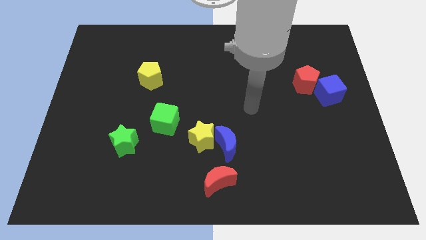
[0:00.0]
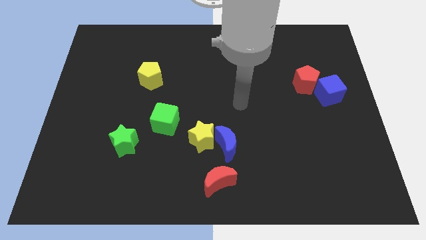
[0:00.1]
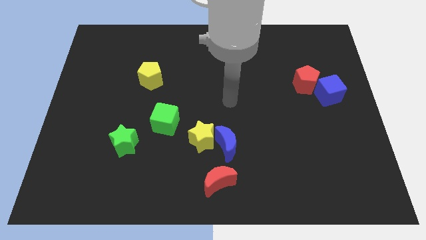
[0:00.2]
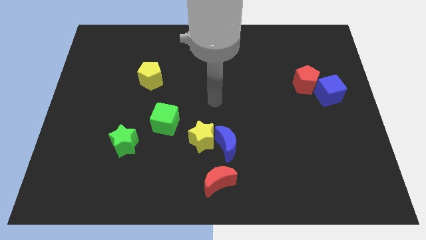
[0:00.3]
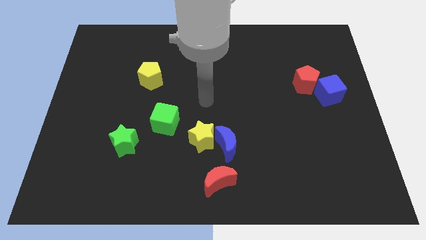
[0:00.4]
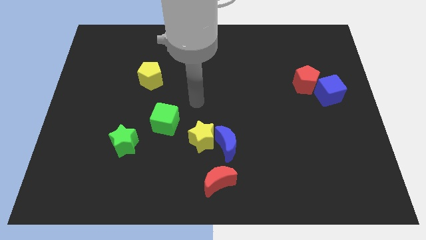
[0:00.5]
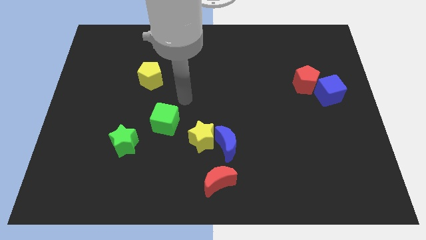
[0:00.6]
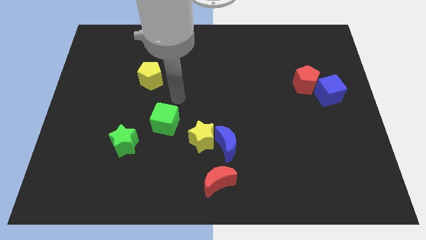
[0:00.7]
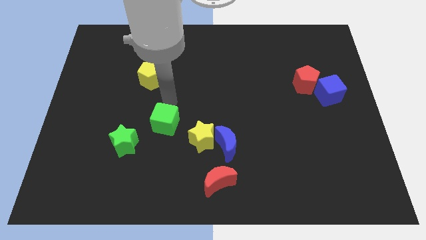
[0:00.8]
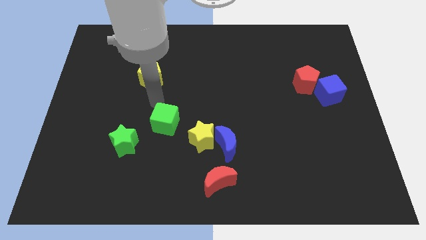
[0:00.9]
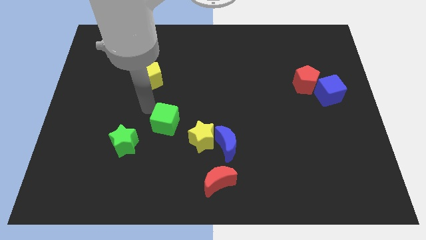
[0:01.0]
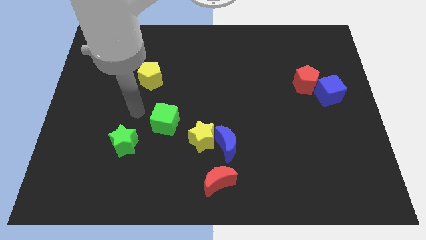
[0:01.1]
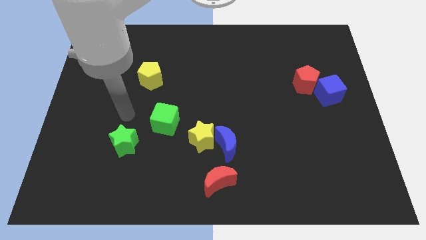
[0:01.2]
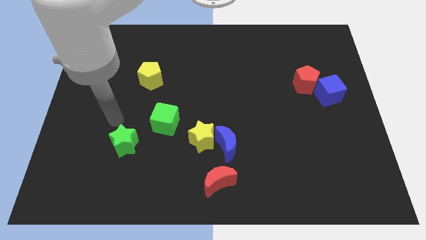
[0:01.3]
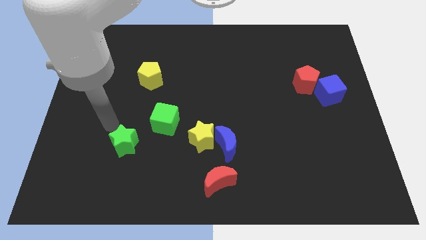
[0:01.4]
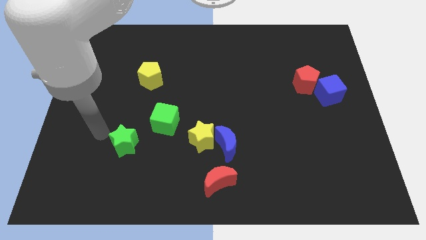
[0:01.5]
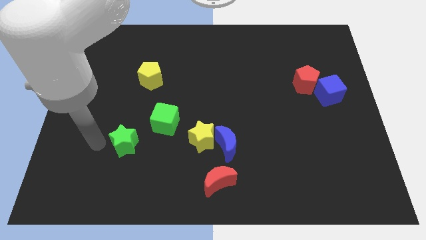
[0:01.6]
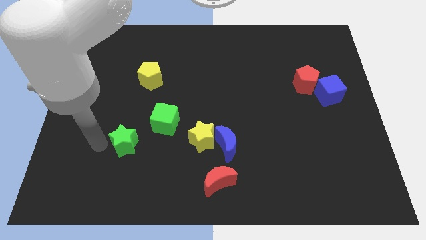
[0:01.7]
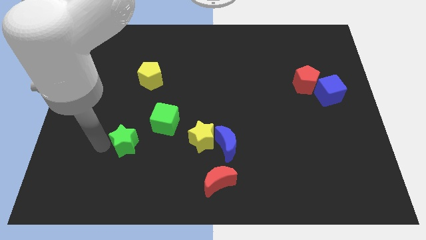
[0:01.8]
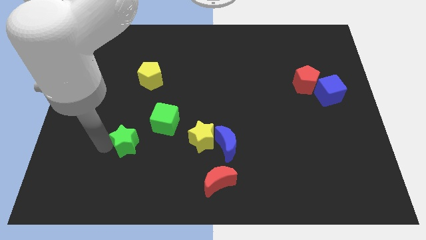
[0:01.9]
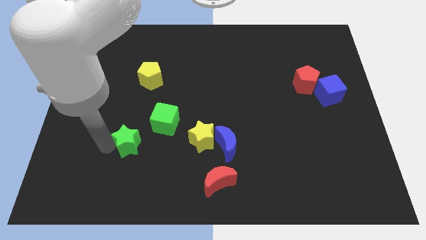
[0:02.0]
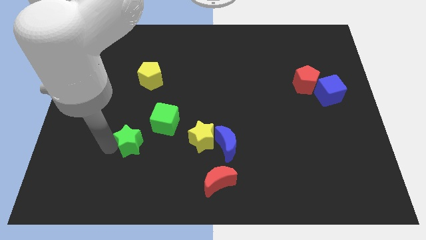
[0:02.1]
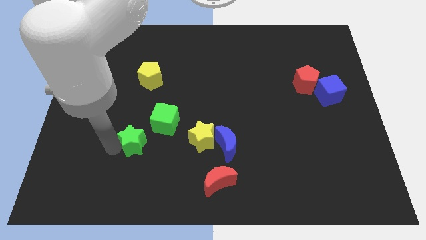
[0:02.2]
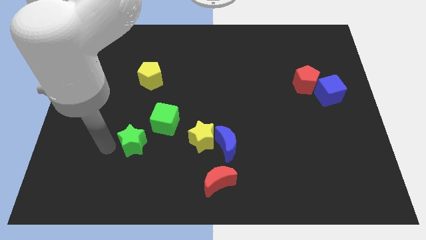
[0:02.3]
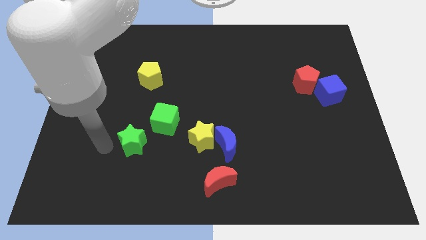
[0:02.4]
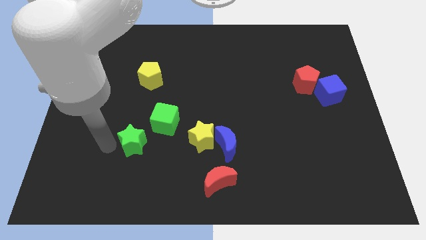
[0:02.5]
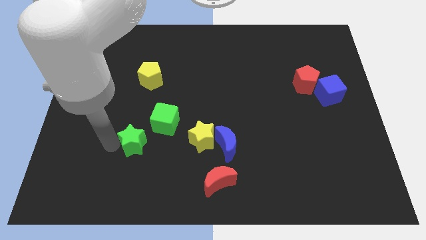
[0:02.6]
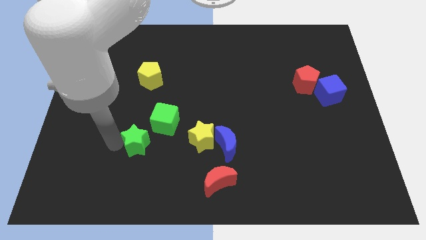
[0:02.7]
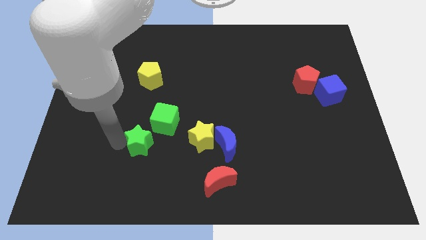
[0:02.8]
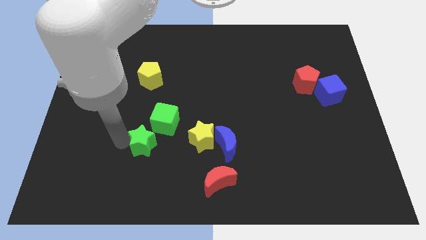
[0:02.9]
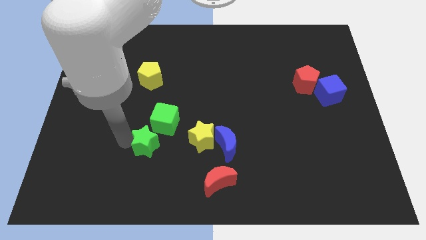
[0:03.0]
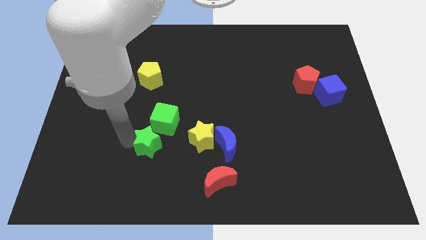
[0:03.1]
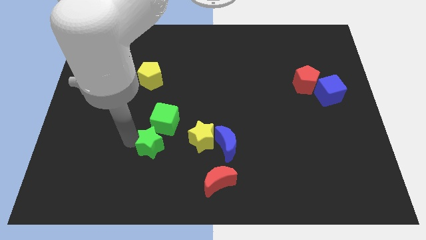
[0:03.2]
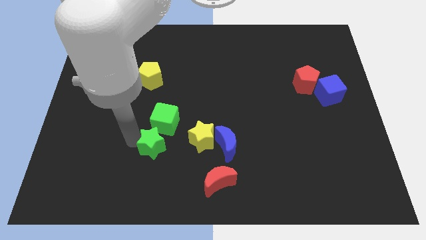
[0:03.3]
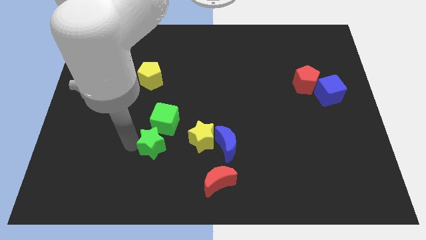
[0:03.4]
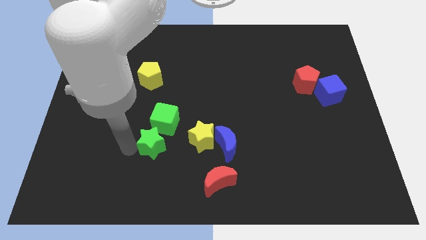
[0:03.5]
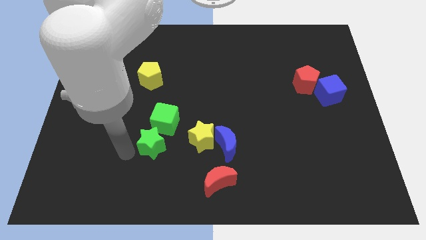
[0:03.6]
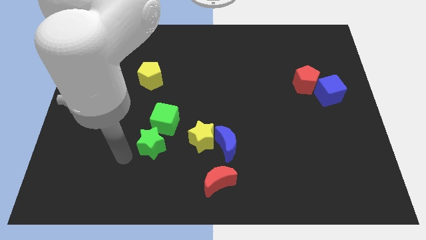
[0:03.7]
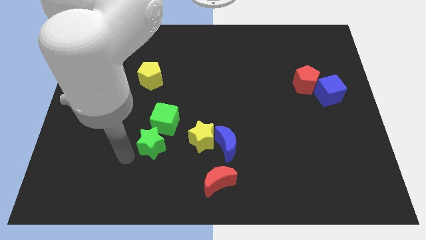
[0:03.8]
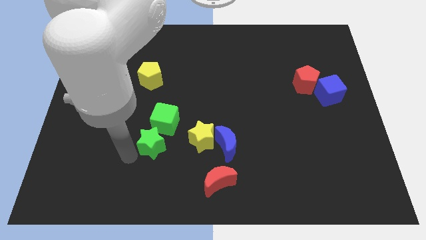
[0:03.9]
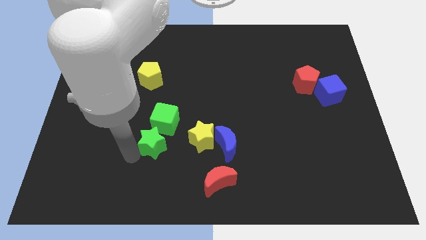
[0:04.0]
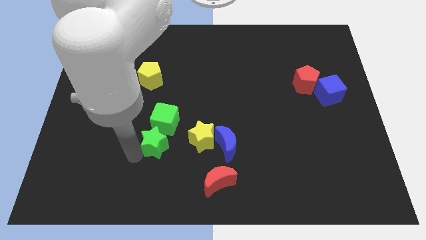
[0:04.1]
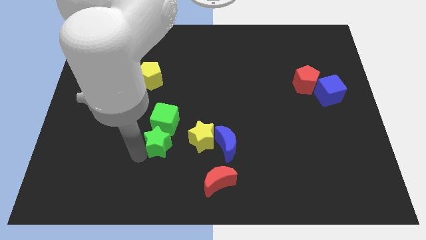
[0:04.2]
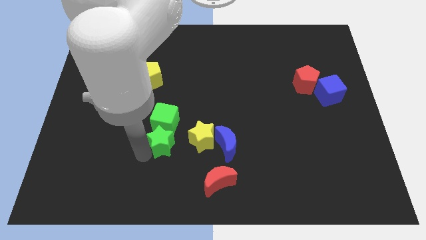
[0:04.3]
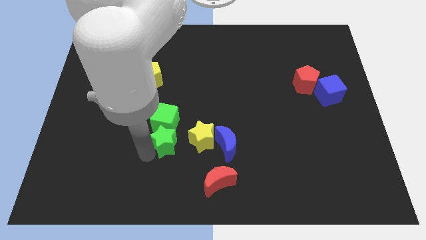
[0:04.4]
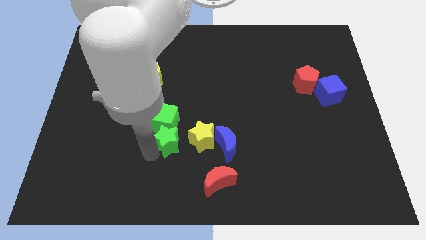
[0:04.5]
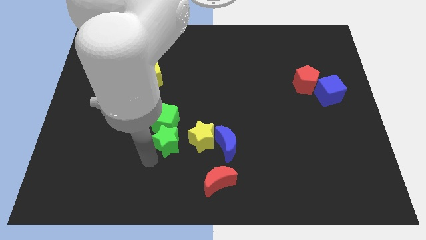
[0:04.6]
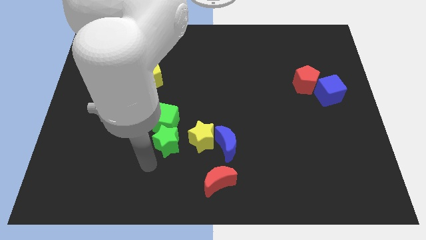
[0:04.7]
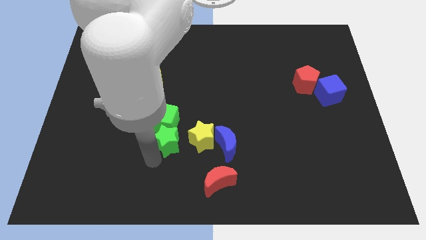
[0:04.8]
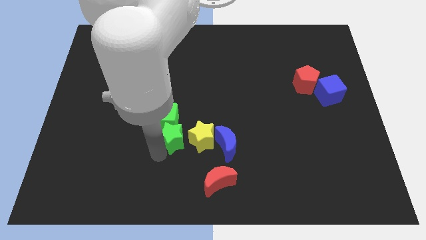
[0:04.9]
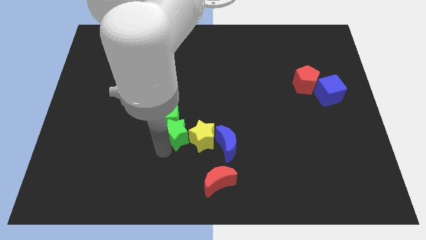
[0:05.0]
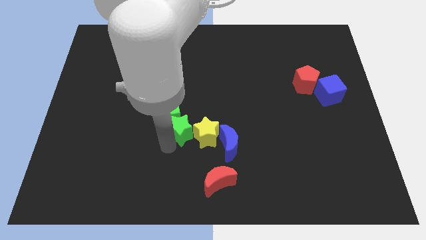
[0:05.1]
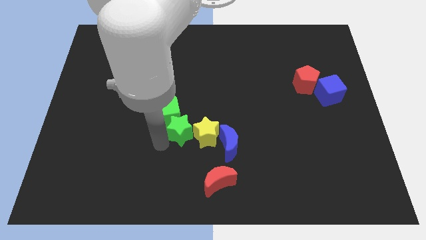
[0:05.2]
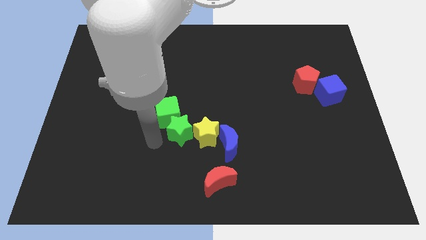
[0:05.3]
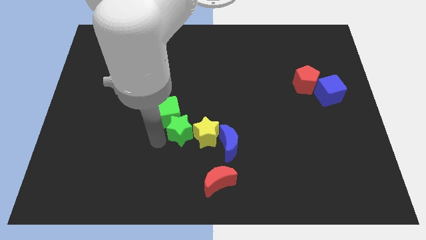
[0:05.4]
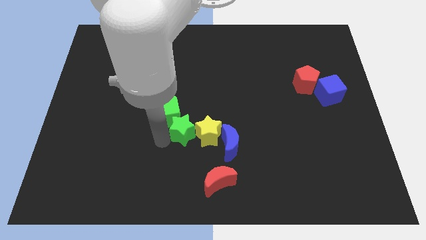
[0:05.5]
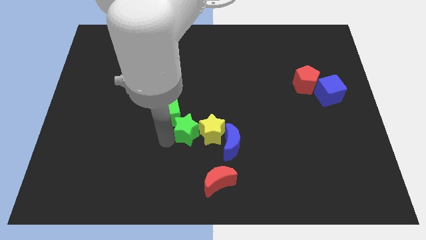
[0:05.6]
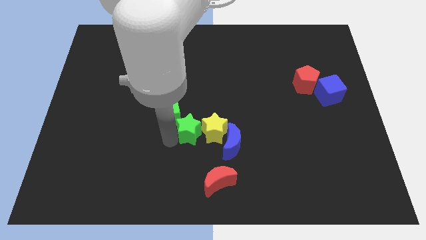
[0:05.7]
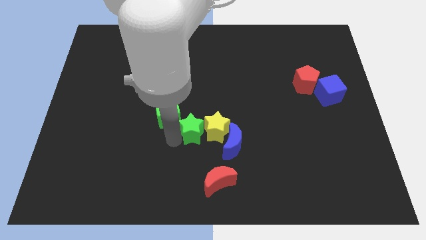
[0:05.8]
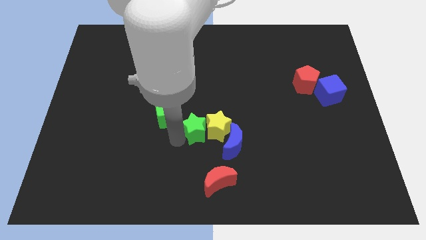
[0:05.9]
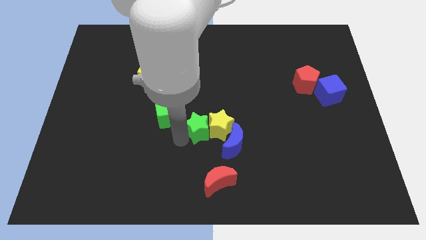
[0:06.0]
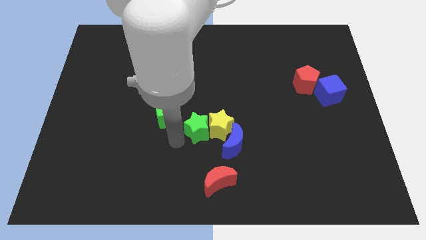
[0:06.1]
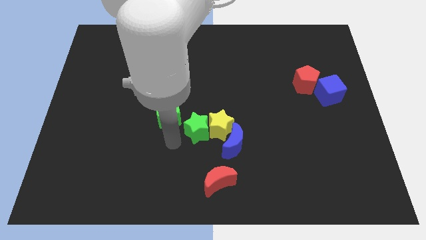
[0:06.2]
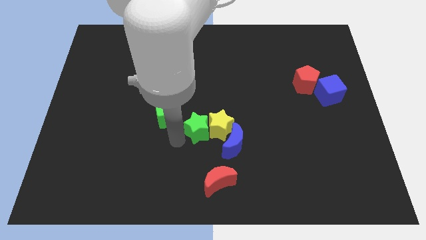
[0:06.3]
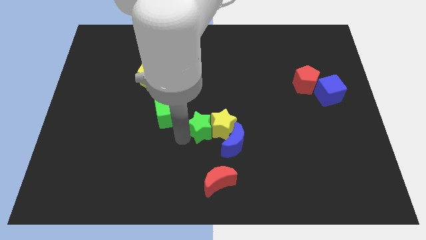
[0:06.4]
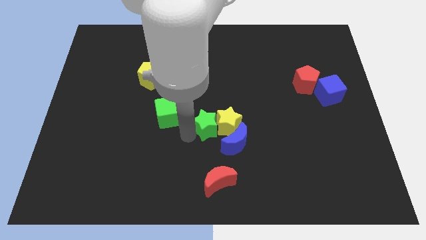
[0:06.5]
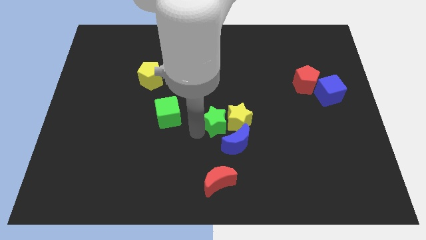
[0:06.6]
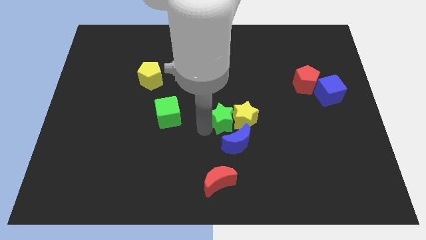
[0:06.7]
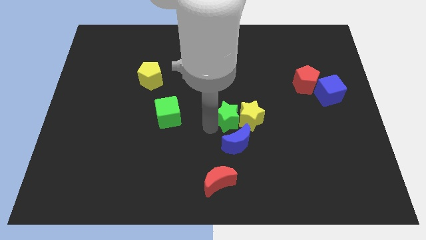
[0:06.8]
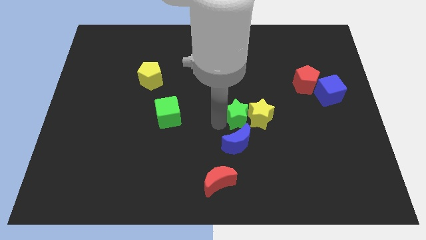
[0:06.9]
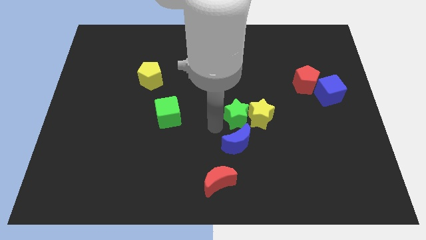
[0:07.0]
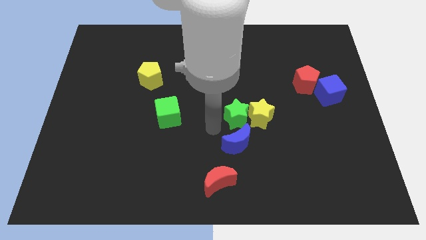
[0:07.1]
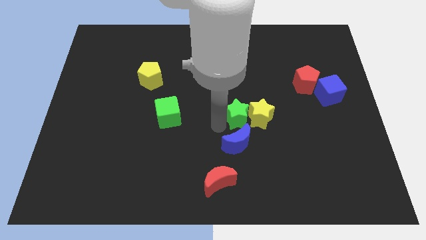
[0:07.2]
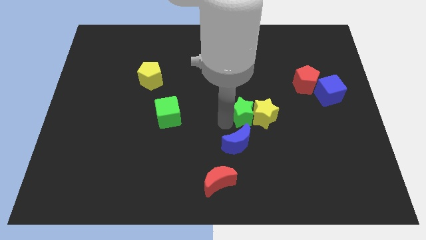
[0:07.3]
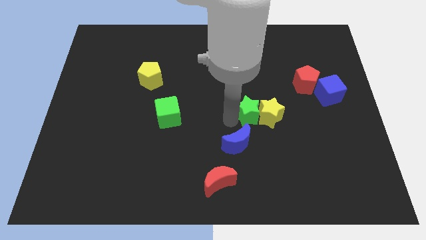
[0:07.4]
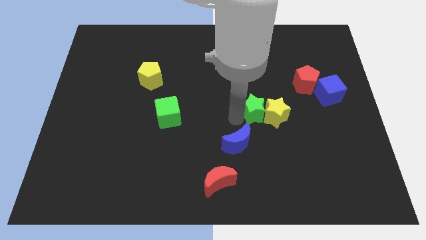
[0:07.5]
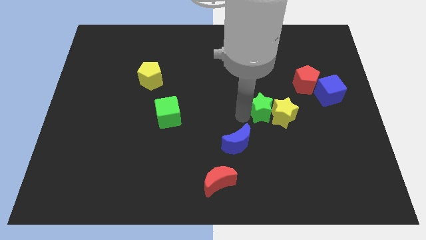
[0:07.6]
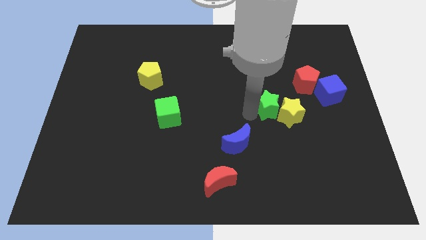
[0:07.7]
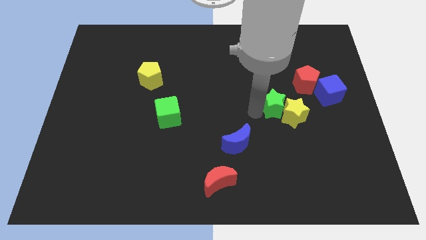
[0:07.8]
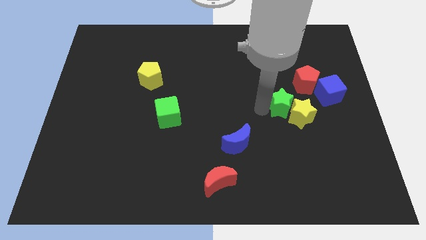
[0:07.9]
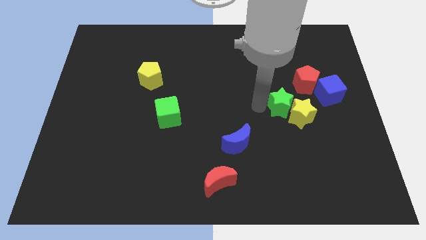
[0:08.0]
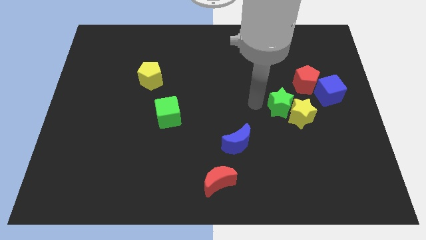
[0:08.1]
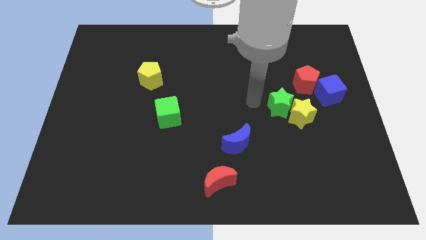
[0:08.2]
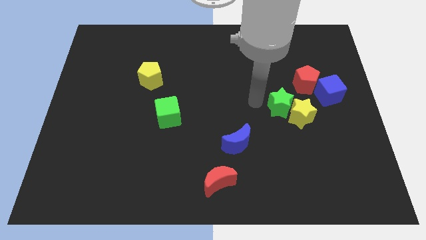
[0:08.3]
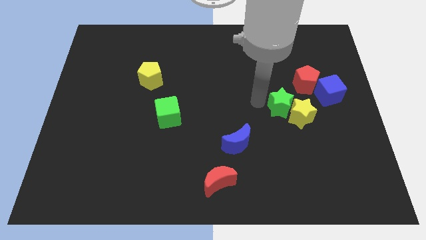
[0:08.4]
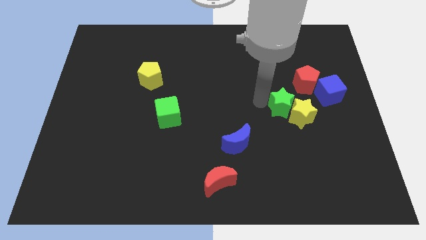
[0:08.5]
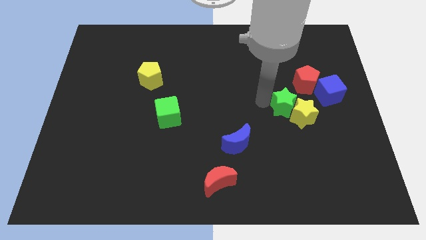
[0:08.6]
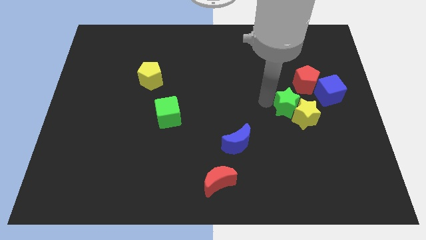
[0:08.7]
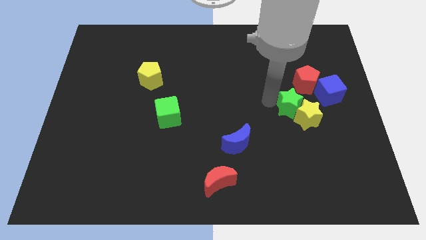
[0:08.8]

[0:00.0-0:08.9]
slide the green star diagonally down and to the left of the blue cube
